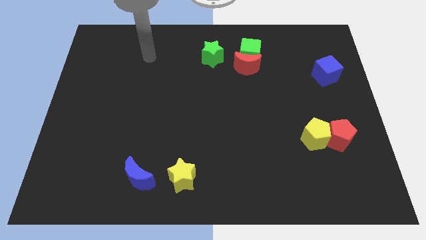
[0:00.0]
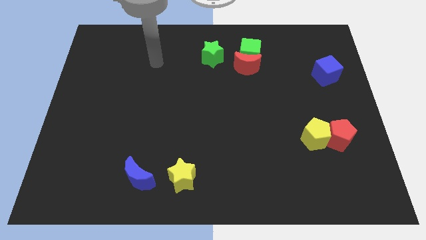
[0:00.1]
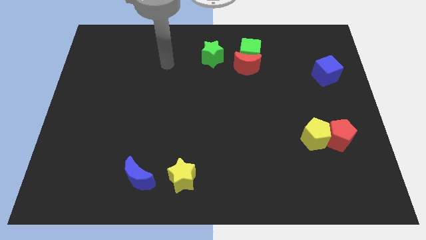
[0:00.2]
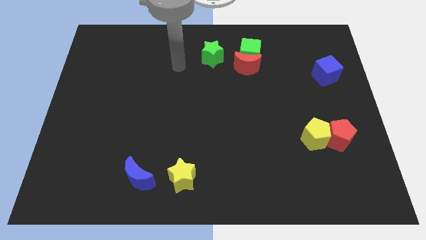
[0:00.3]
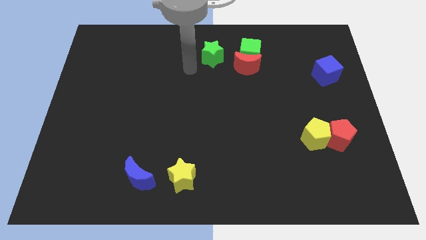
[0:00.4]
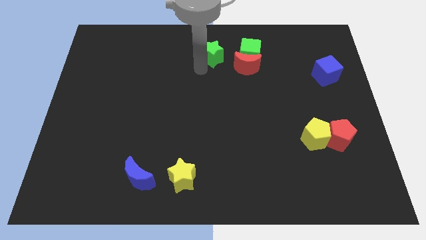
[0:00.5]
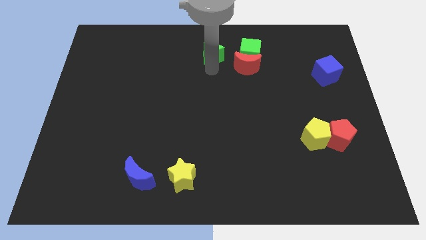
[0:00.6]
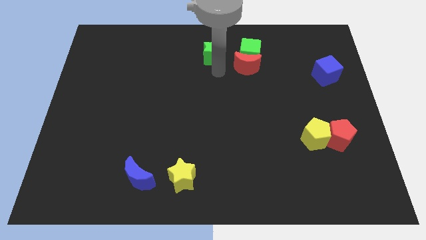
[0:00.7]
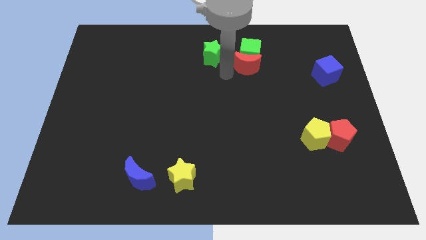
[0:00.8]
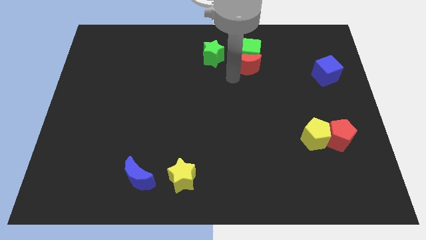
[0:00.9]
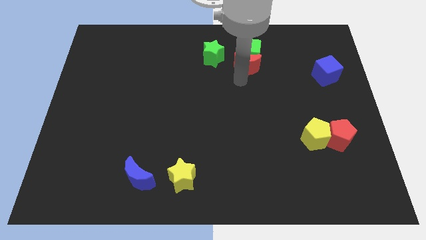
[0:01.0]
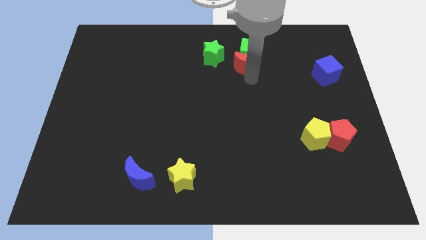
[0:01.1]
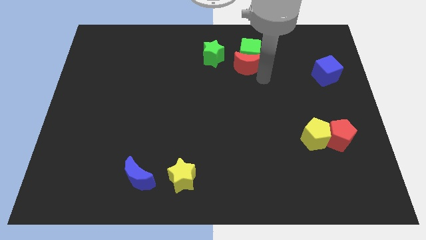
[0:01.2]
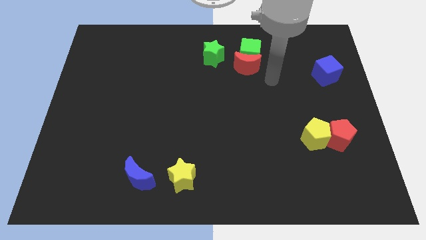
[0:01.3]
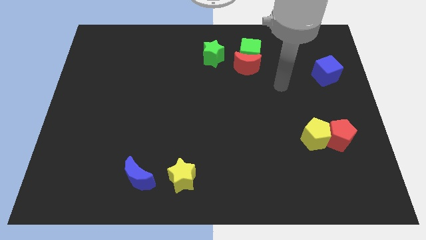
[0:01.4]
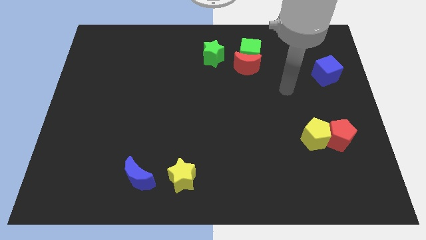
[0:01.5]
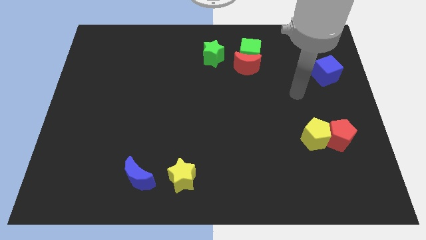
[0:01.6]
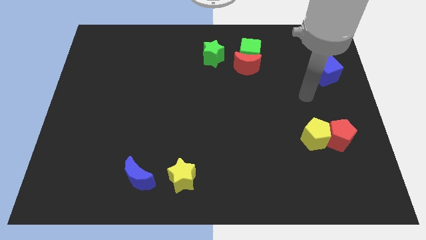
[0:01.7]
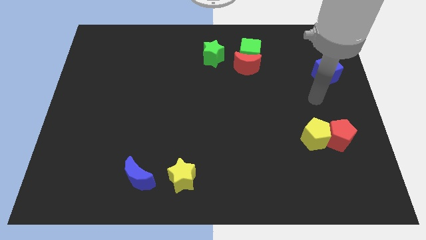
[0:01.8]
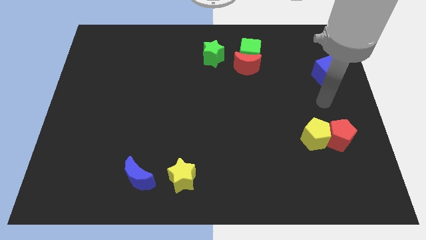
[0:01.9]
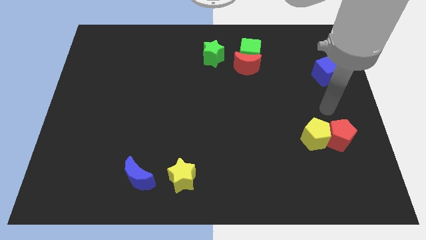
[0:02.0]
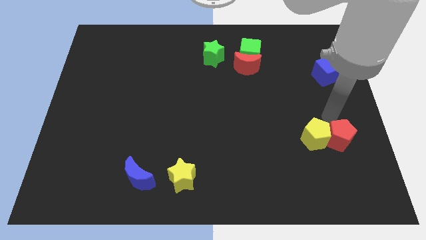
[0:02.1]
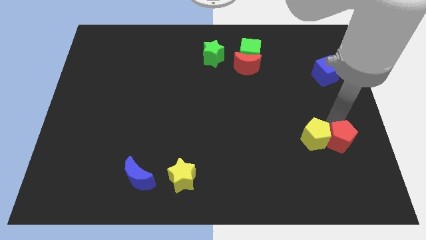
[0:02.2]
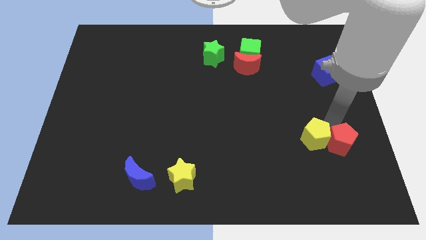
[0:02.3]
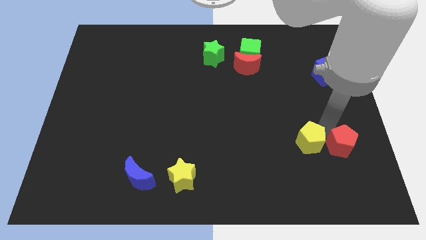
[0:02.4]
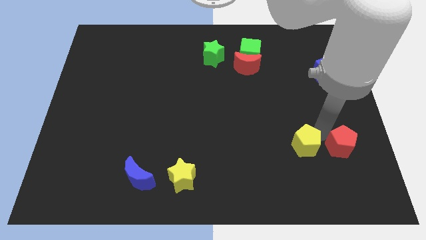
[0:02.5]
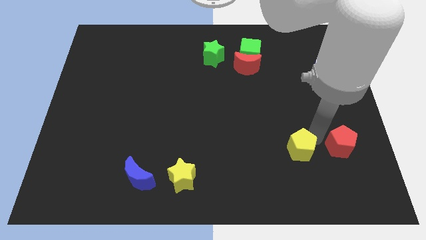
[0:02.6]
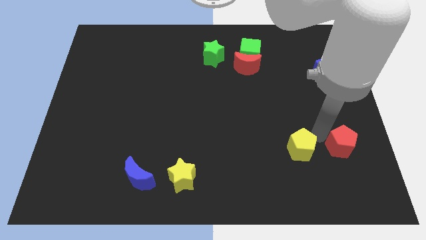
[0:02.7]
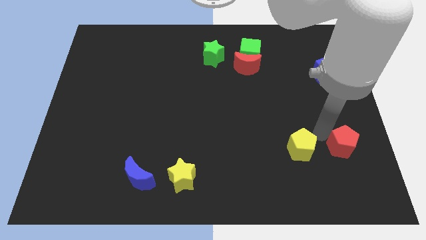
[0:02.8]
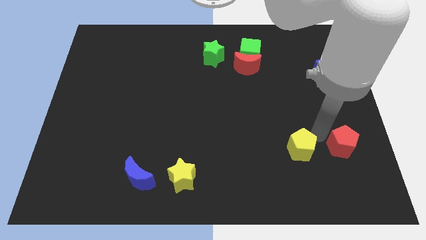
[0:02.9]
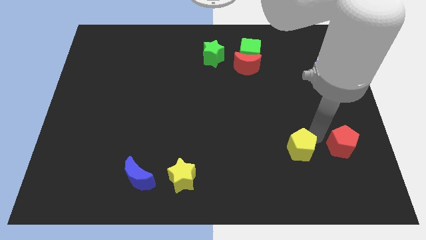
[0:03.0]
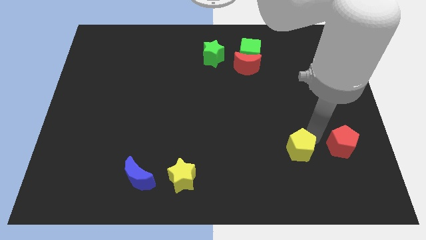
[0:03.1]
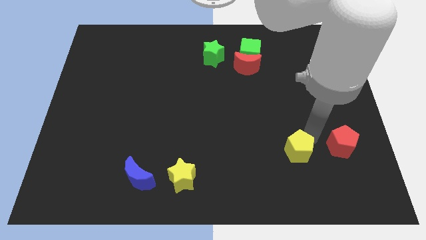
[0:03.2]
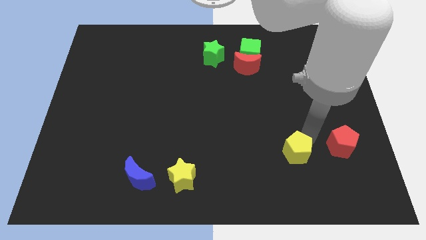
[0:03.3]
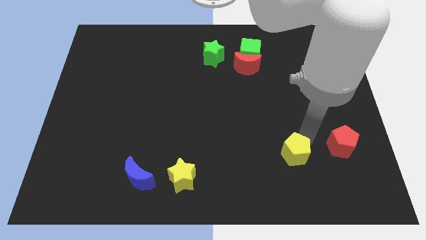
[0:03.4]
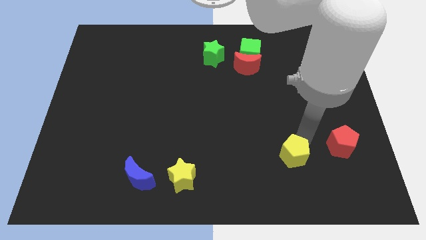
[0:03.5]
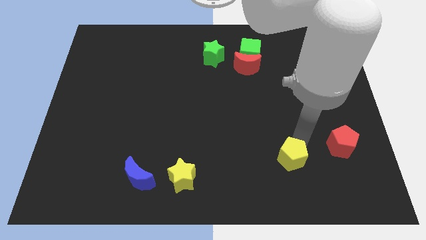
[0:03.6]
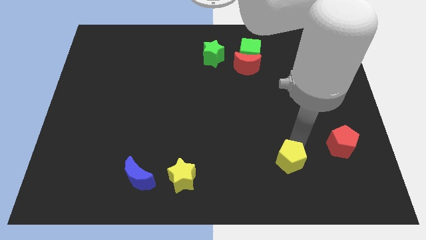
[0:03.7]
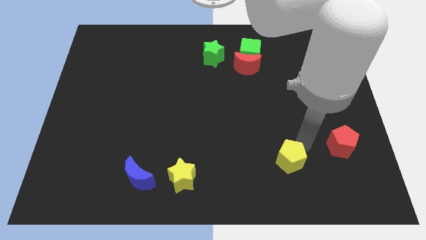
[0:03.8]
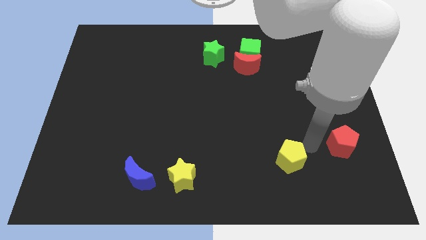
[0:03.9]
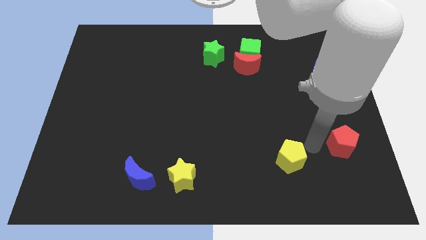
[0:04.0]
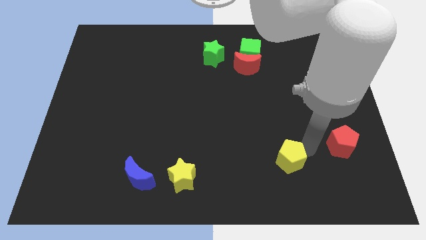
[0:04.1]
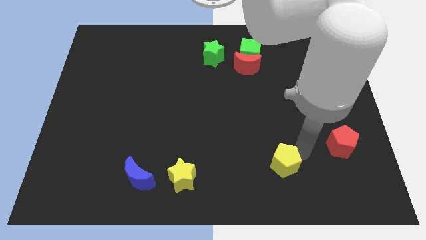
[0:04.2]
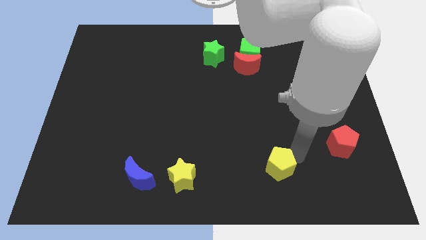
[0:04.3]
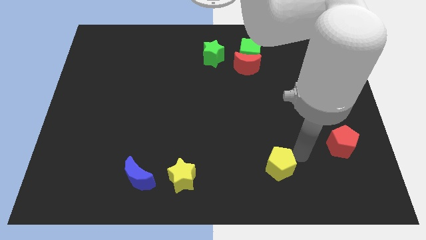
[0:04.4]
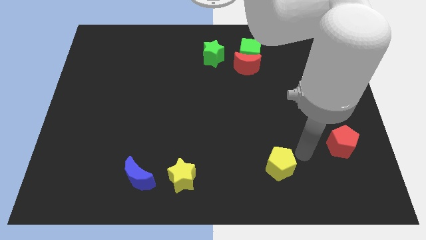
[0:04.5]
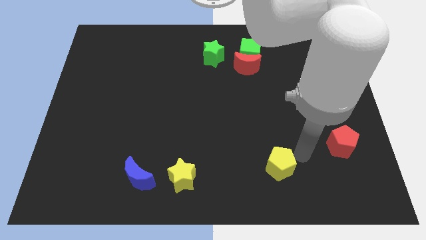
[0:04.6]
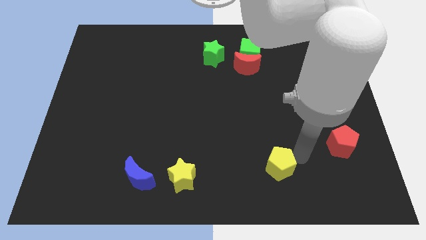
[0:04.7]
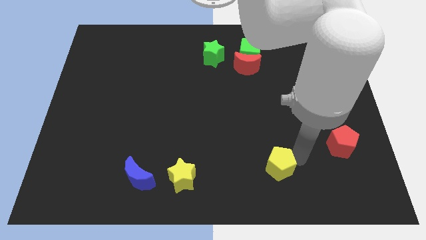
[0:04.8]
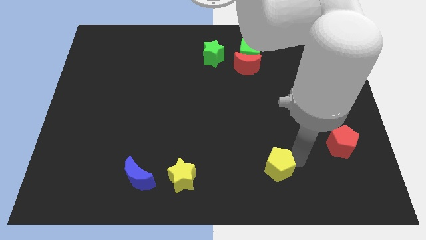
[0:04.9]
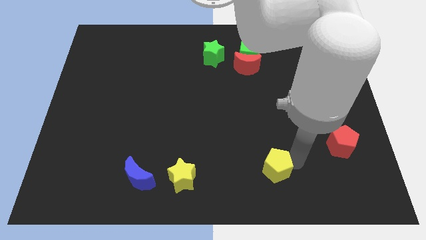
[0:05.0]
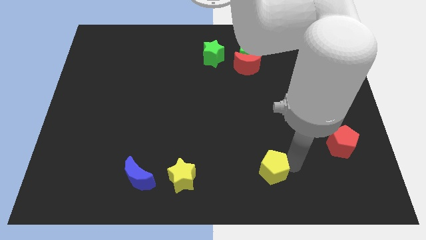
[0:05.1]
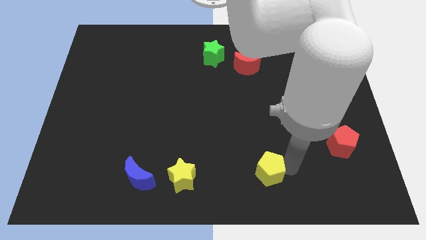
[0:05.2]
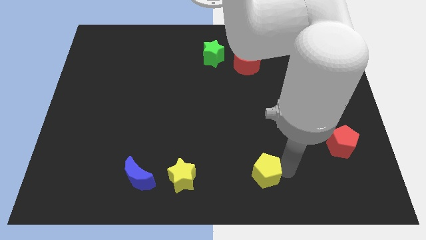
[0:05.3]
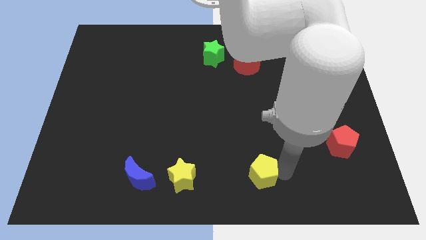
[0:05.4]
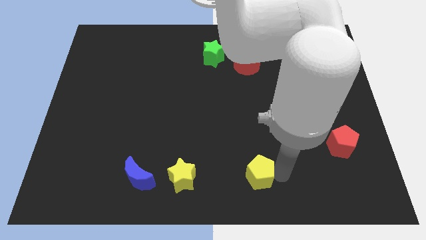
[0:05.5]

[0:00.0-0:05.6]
move the yellow pentagon just right of the yellow star

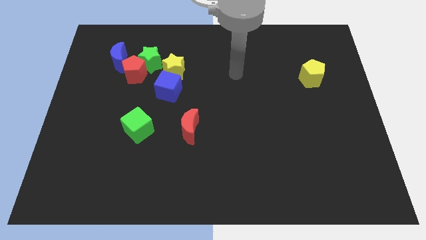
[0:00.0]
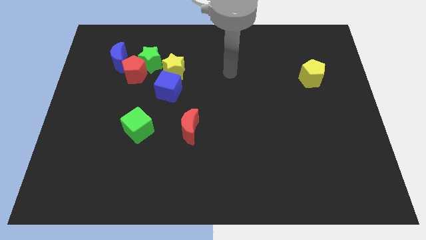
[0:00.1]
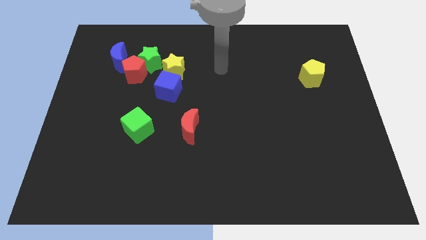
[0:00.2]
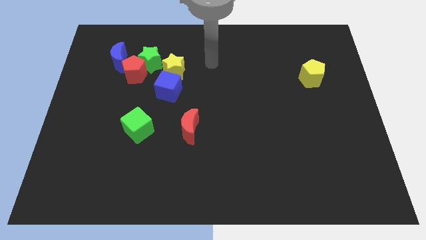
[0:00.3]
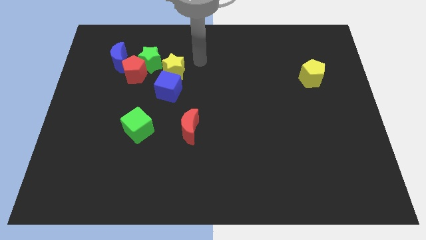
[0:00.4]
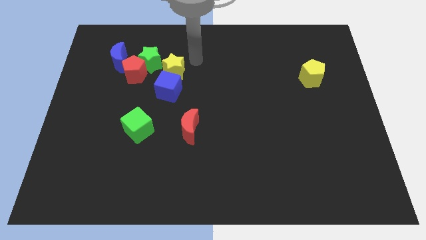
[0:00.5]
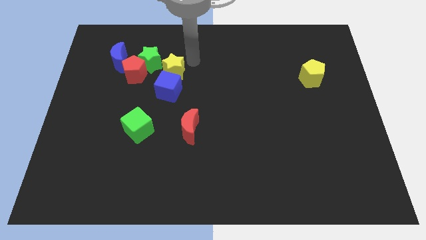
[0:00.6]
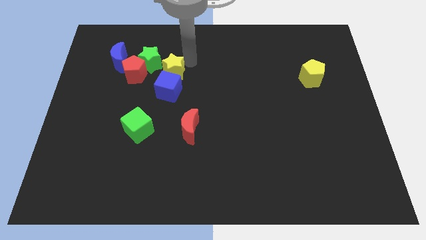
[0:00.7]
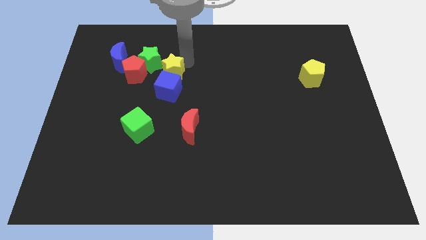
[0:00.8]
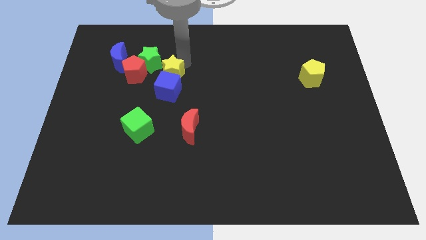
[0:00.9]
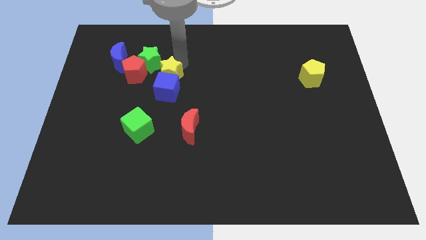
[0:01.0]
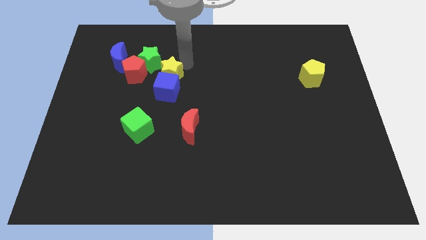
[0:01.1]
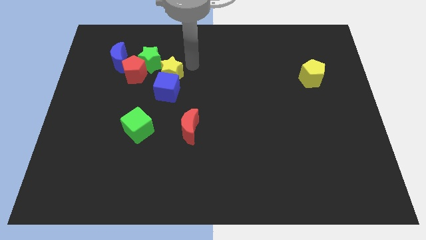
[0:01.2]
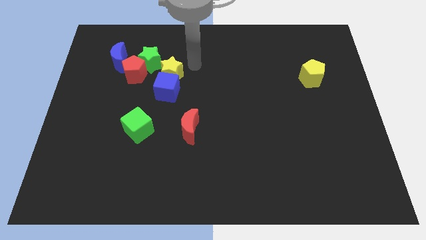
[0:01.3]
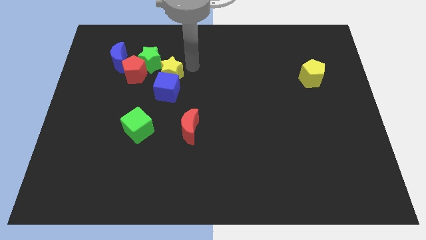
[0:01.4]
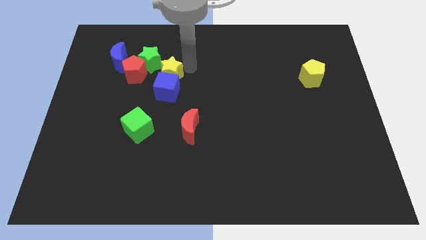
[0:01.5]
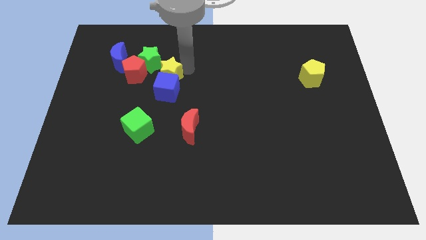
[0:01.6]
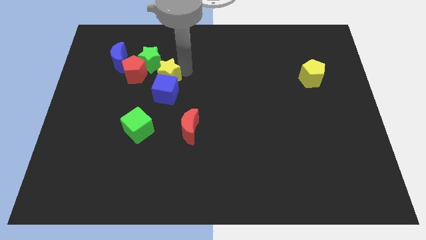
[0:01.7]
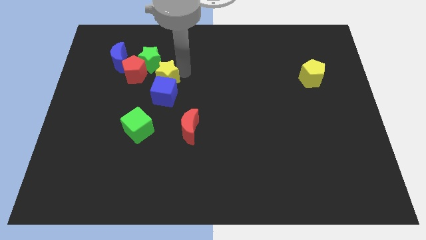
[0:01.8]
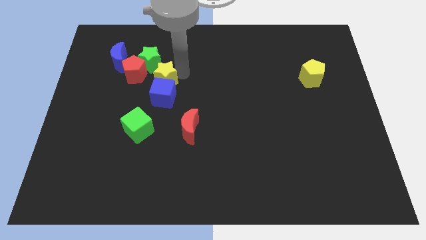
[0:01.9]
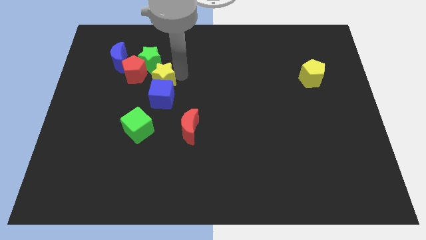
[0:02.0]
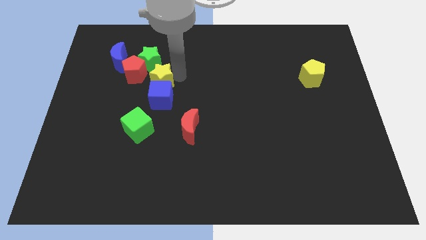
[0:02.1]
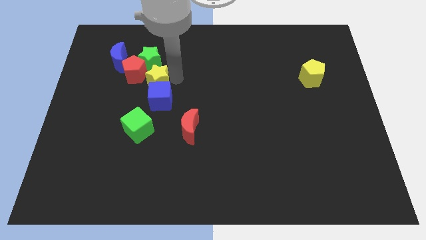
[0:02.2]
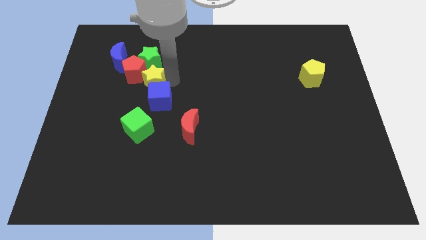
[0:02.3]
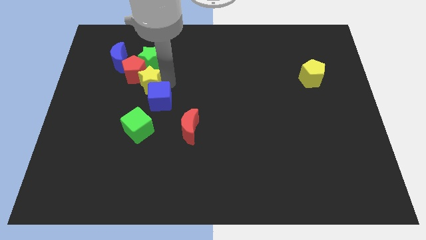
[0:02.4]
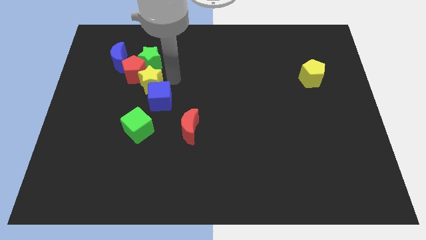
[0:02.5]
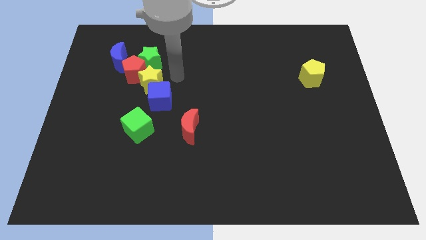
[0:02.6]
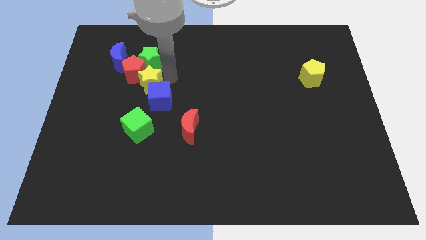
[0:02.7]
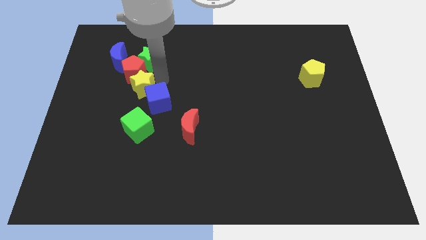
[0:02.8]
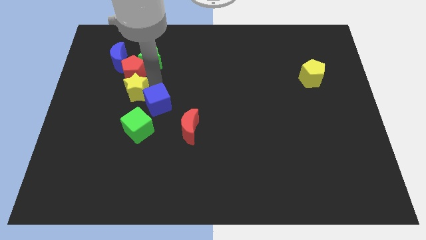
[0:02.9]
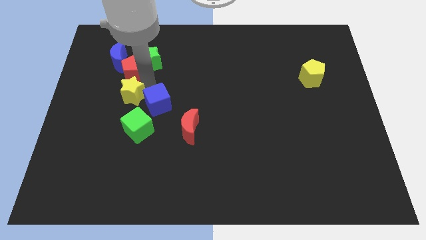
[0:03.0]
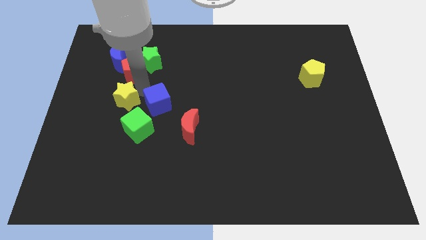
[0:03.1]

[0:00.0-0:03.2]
move the yellow star to the bottom side of the blue moon
